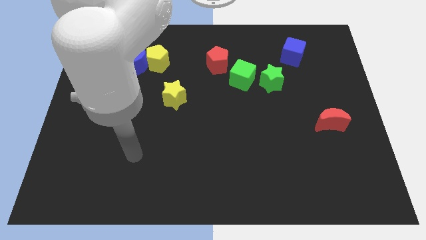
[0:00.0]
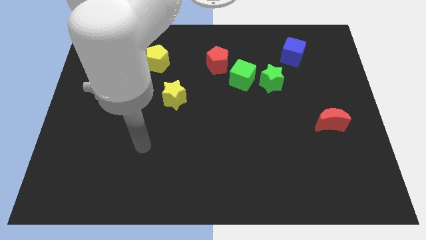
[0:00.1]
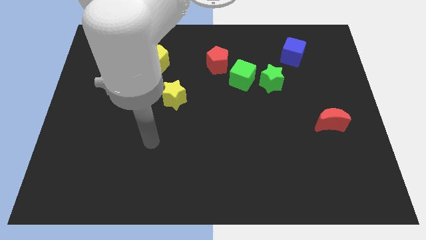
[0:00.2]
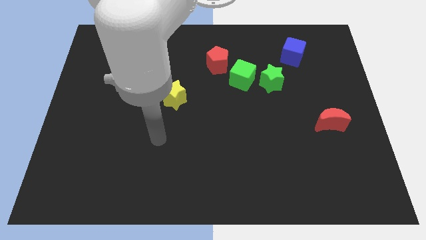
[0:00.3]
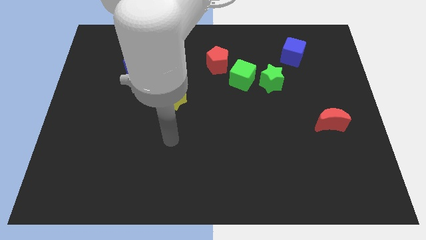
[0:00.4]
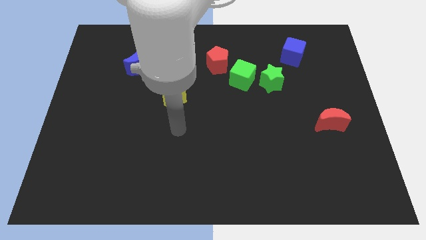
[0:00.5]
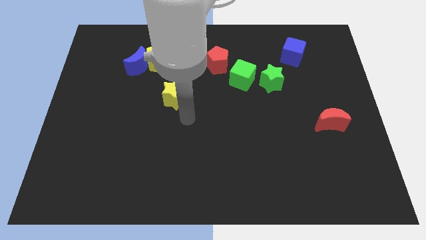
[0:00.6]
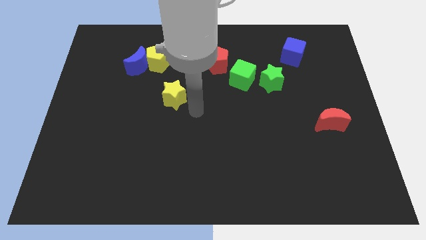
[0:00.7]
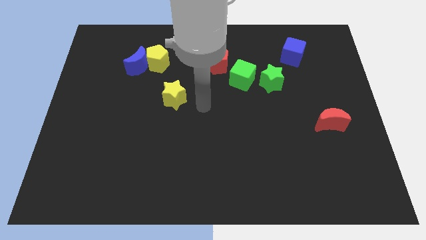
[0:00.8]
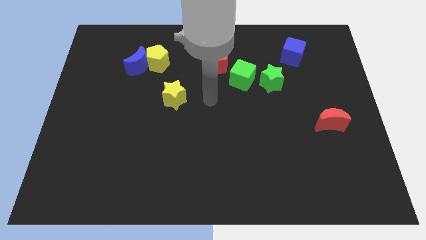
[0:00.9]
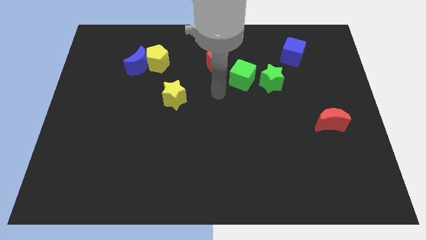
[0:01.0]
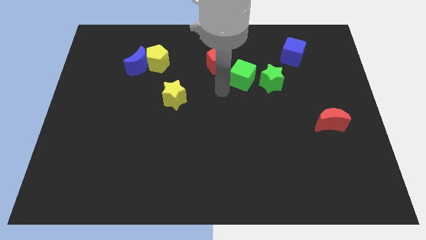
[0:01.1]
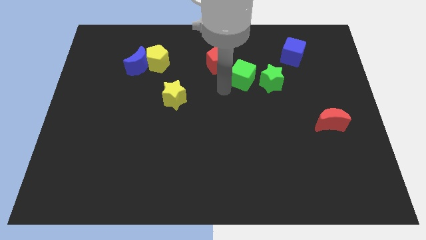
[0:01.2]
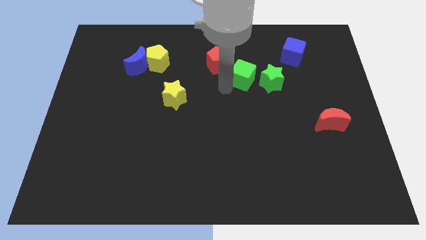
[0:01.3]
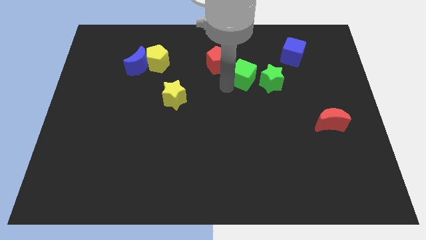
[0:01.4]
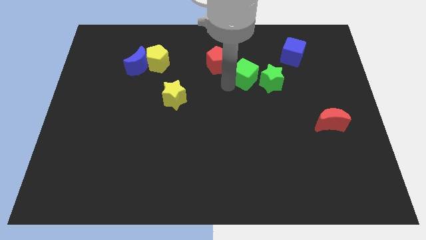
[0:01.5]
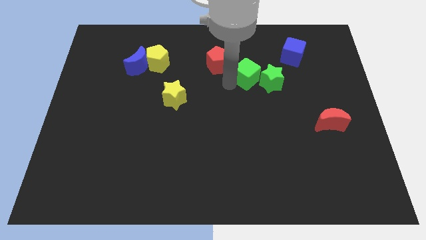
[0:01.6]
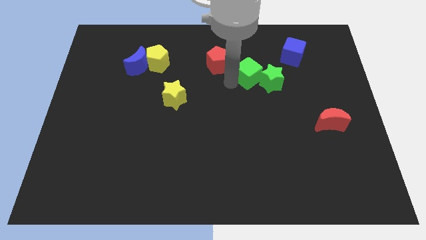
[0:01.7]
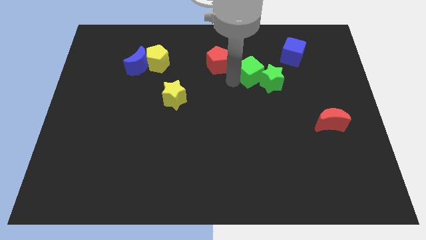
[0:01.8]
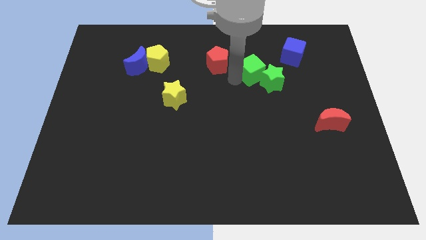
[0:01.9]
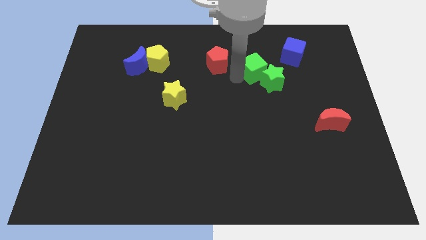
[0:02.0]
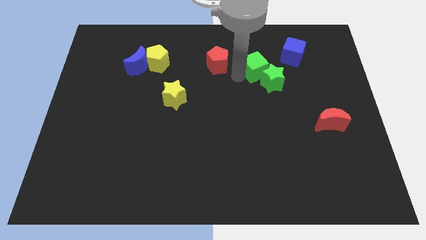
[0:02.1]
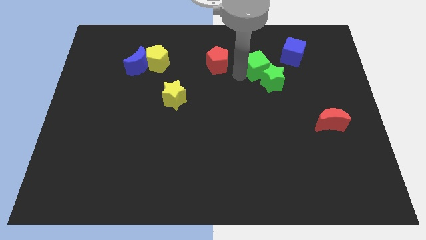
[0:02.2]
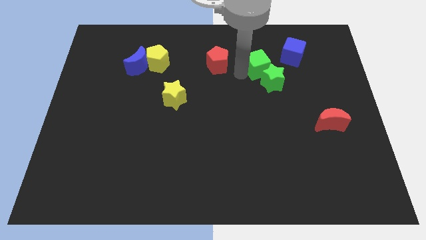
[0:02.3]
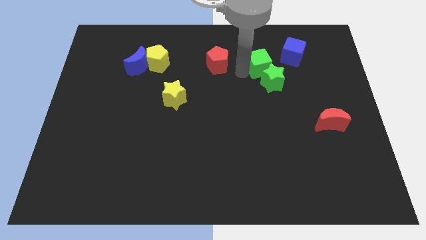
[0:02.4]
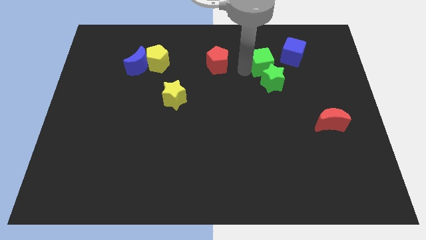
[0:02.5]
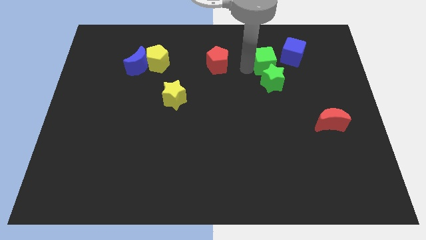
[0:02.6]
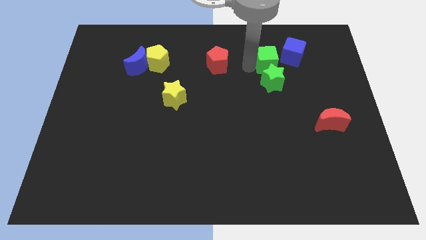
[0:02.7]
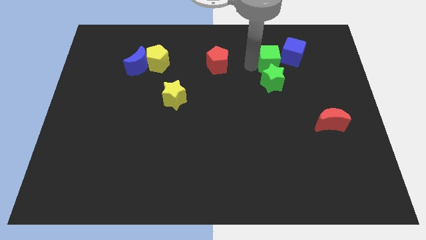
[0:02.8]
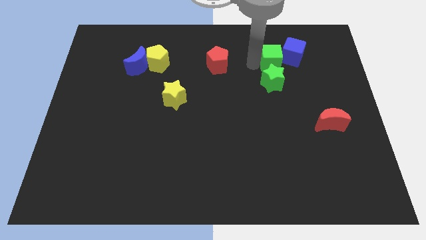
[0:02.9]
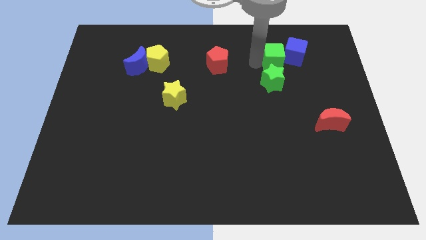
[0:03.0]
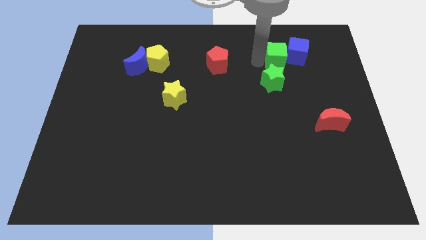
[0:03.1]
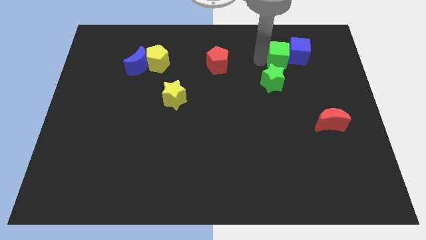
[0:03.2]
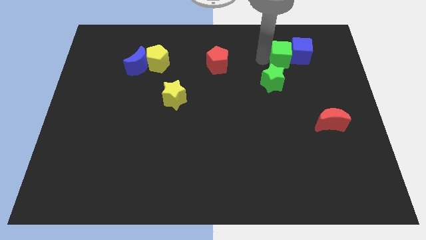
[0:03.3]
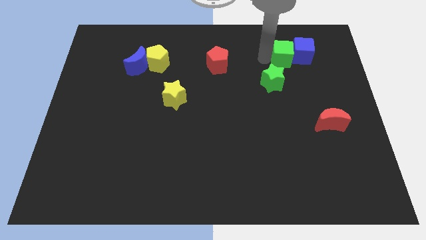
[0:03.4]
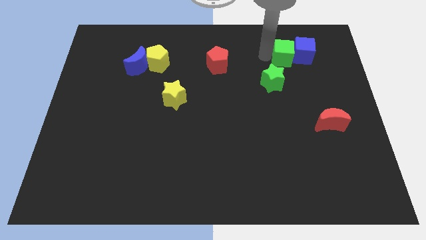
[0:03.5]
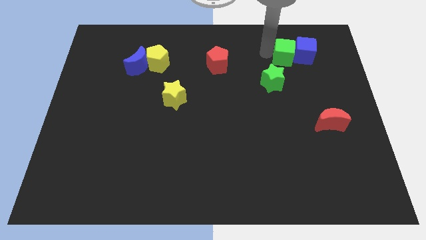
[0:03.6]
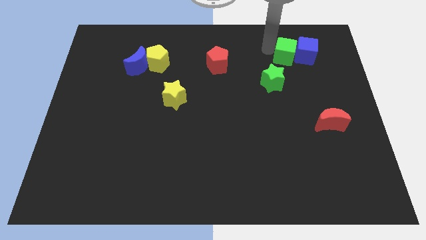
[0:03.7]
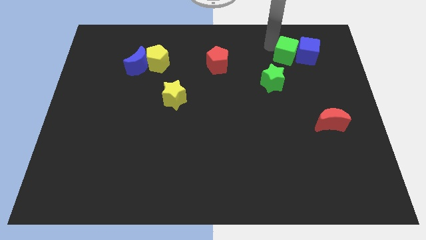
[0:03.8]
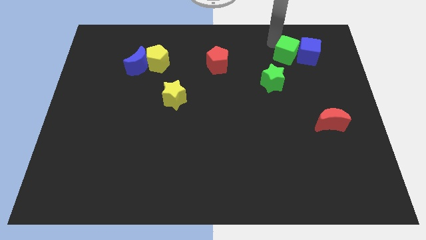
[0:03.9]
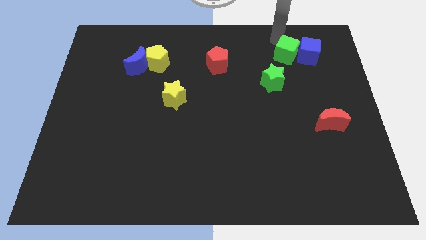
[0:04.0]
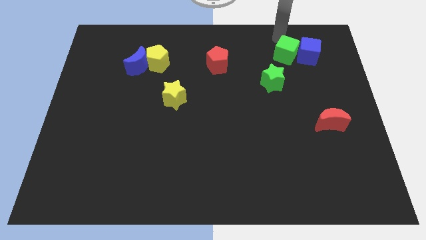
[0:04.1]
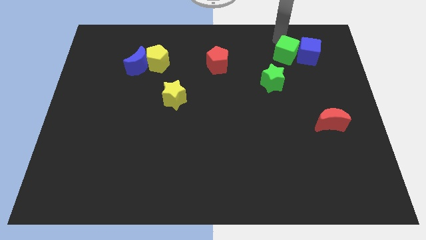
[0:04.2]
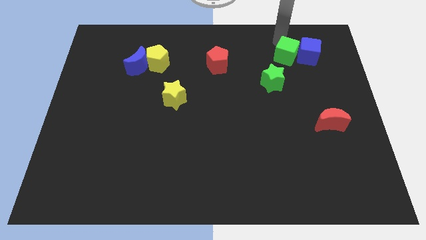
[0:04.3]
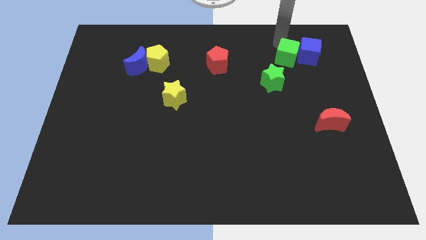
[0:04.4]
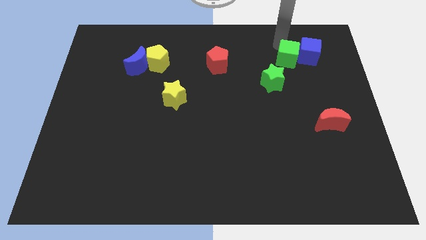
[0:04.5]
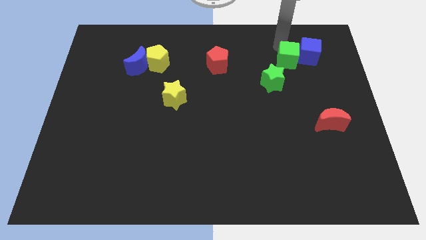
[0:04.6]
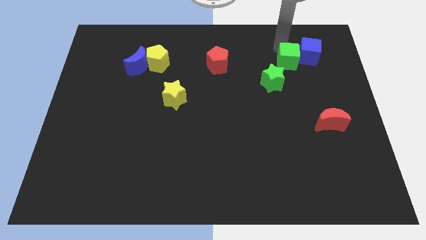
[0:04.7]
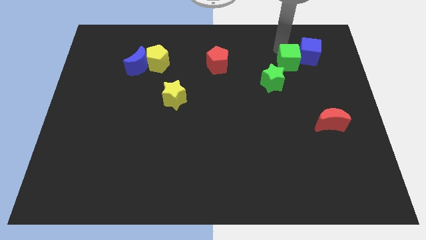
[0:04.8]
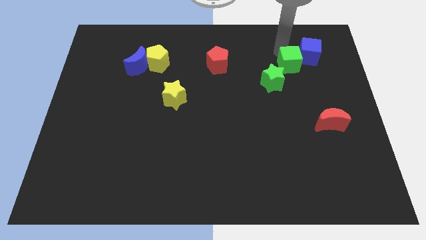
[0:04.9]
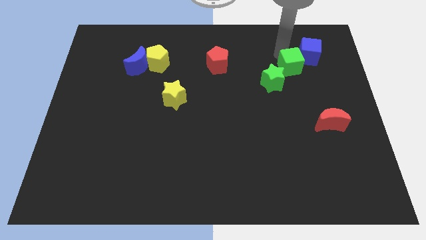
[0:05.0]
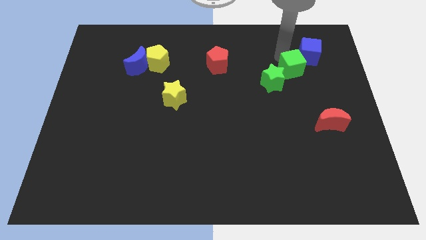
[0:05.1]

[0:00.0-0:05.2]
put the green cube just right of the green star

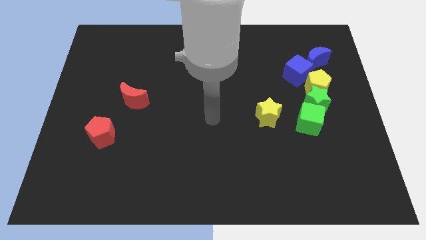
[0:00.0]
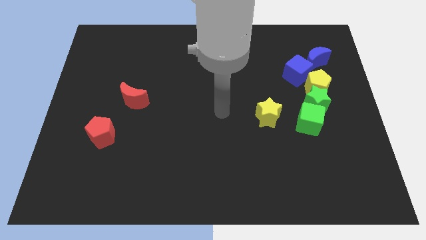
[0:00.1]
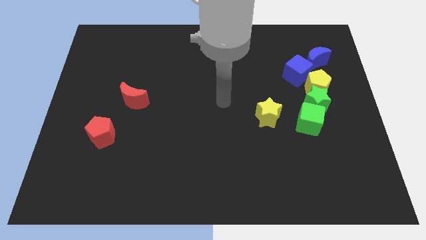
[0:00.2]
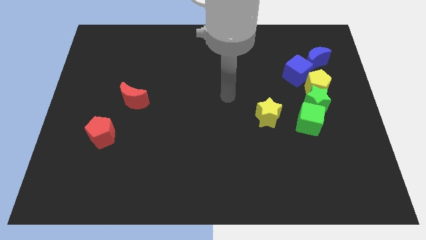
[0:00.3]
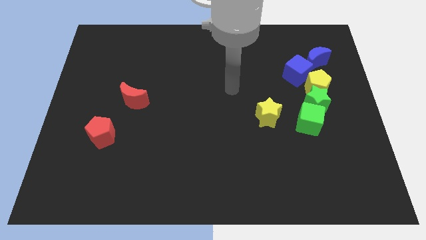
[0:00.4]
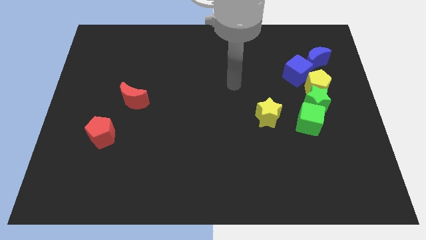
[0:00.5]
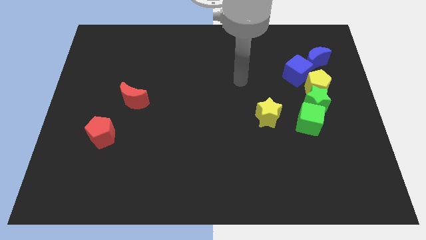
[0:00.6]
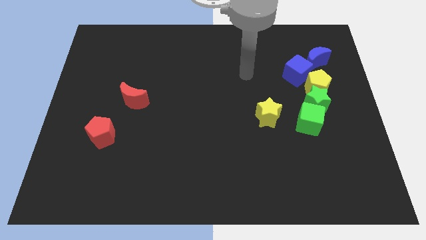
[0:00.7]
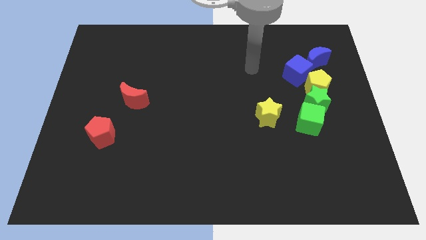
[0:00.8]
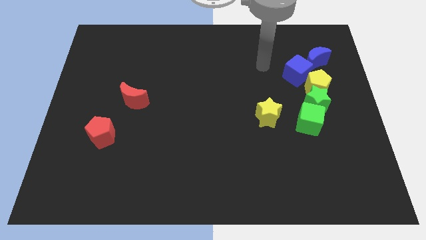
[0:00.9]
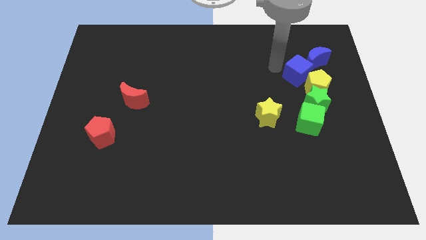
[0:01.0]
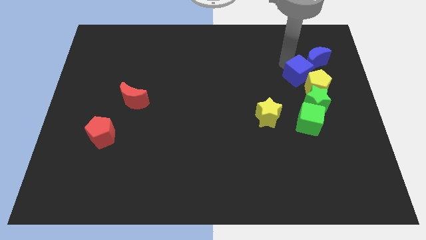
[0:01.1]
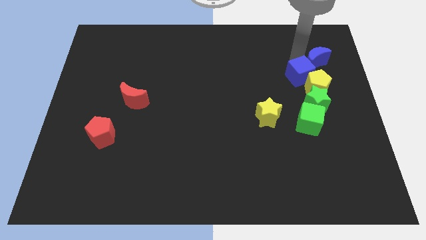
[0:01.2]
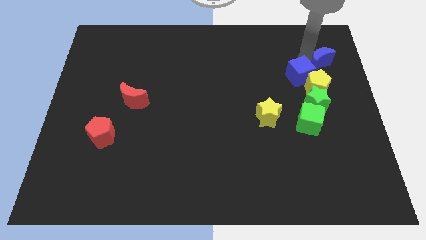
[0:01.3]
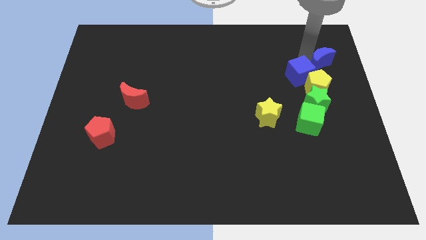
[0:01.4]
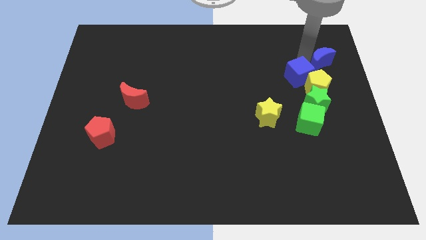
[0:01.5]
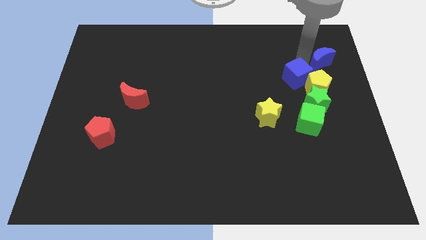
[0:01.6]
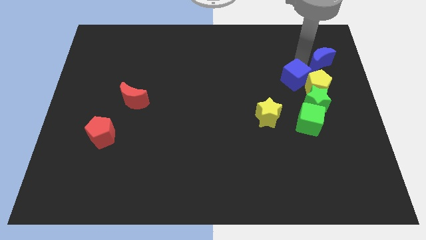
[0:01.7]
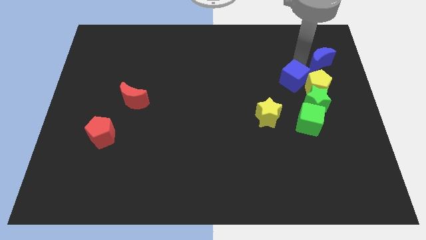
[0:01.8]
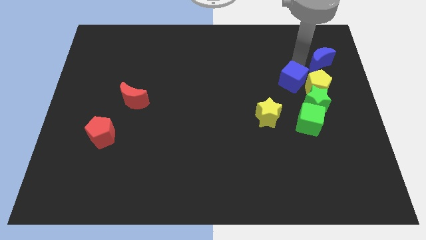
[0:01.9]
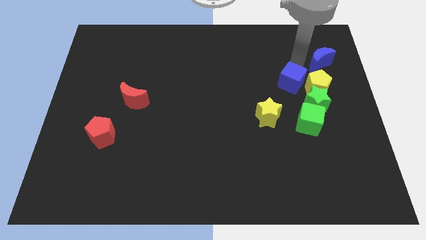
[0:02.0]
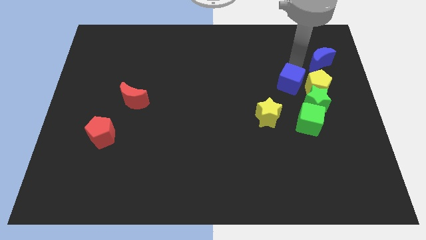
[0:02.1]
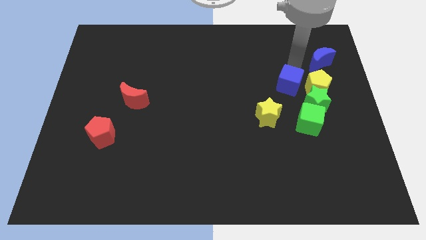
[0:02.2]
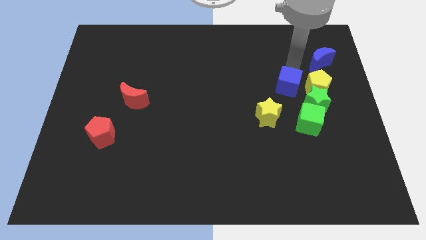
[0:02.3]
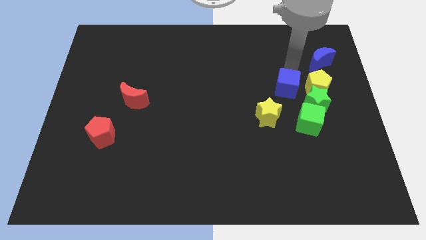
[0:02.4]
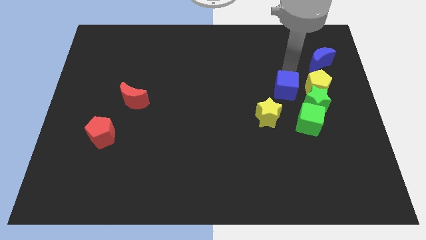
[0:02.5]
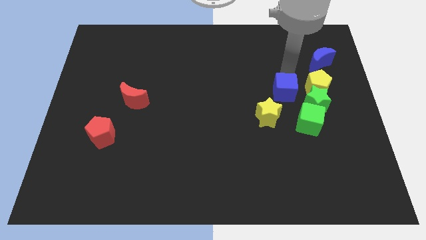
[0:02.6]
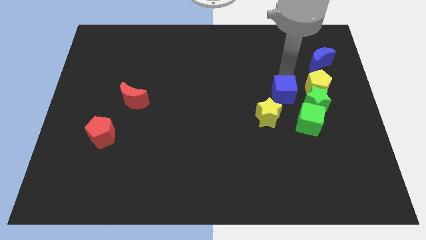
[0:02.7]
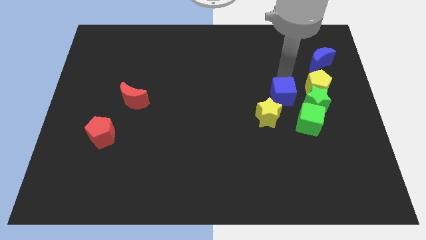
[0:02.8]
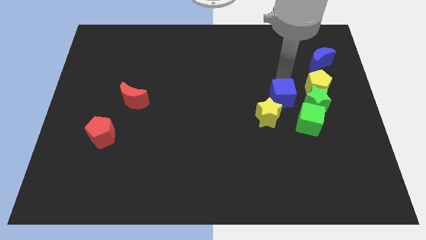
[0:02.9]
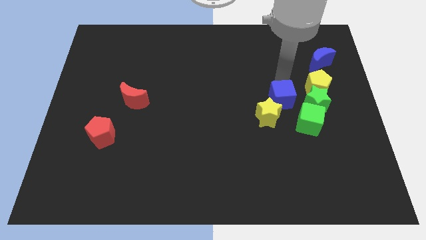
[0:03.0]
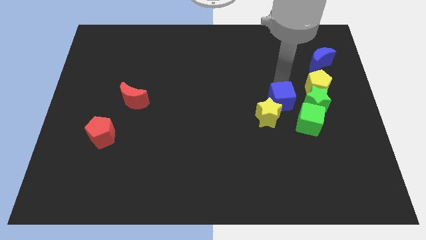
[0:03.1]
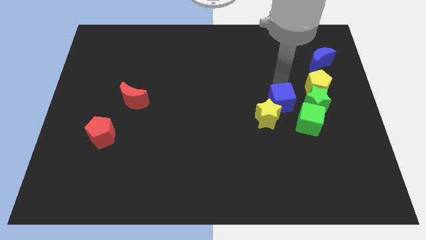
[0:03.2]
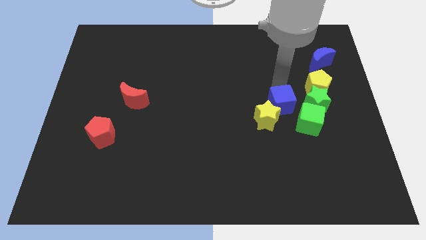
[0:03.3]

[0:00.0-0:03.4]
move the blue cube to the right side of the yellow star
